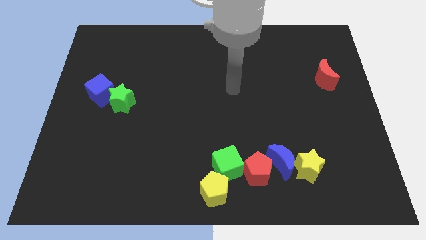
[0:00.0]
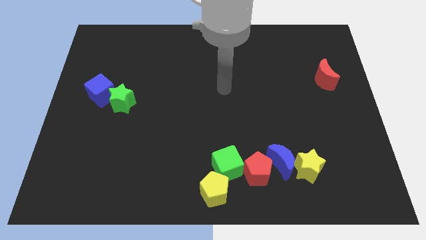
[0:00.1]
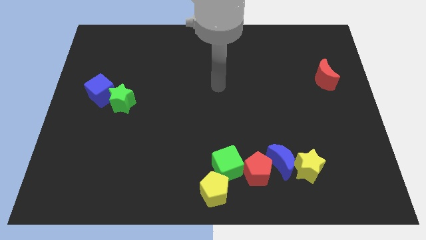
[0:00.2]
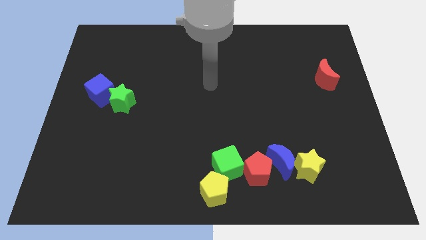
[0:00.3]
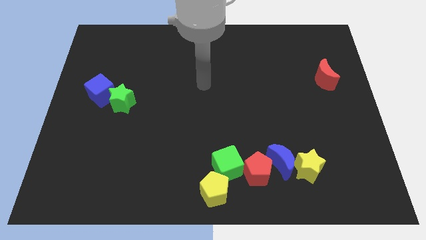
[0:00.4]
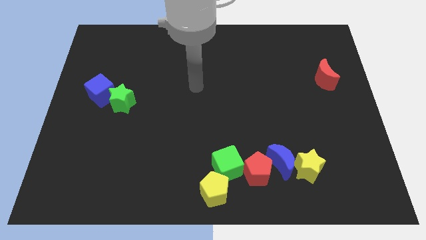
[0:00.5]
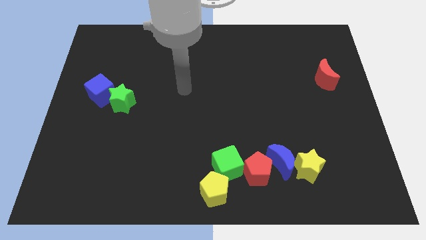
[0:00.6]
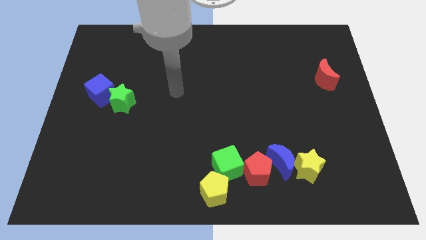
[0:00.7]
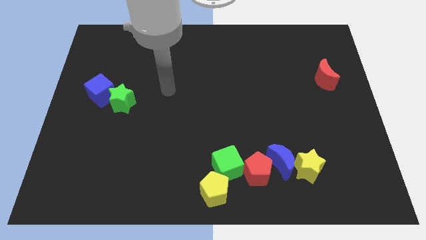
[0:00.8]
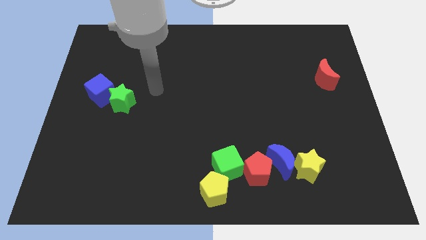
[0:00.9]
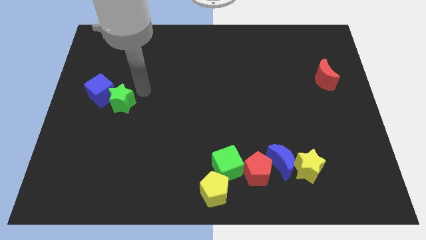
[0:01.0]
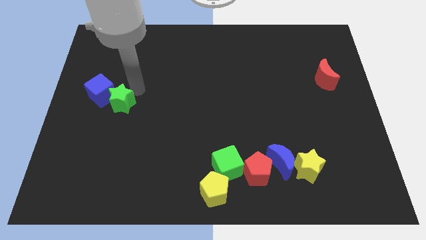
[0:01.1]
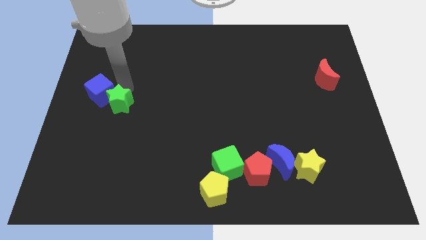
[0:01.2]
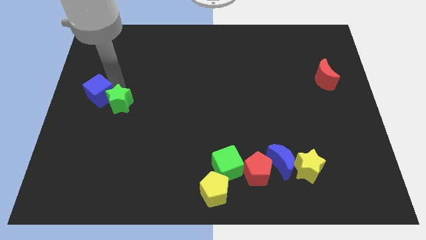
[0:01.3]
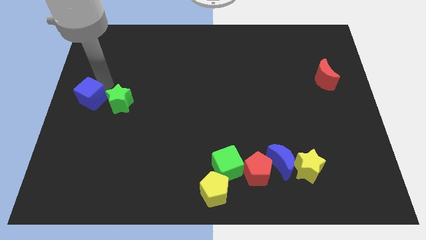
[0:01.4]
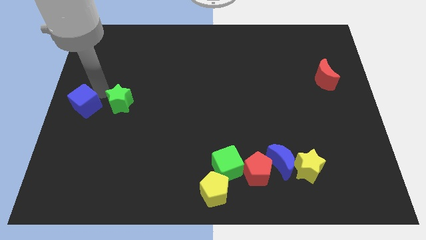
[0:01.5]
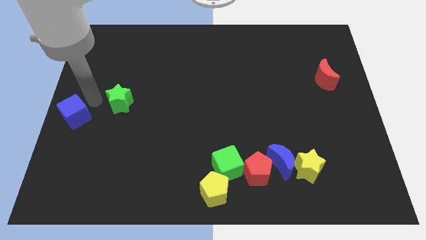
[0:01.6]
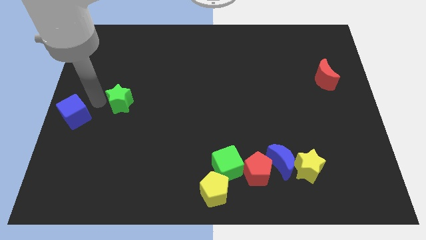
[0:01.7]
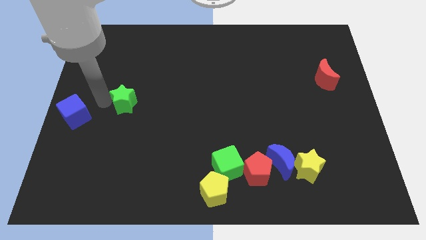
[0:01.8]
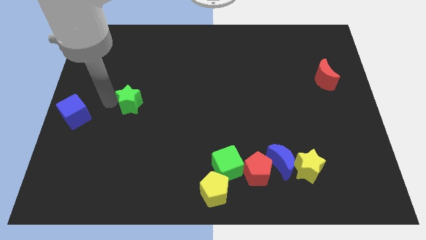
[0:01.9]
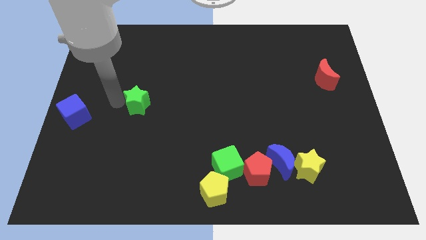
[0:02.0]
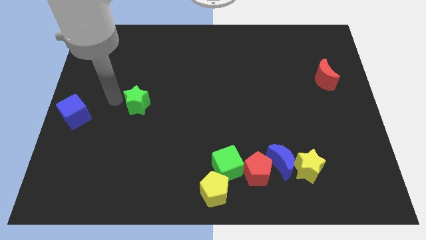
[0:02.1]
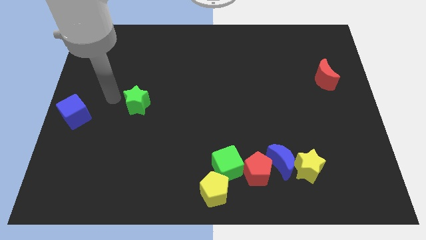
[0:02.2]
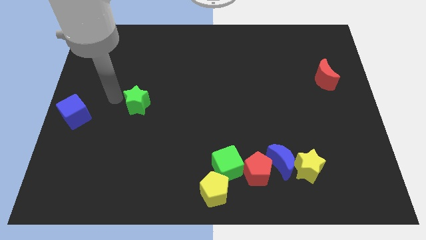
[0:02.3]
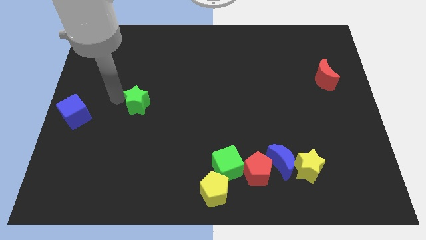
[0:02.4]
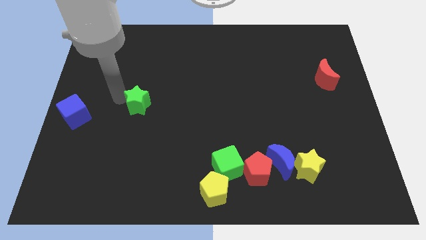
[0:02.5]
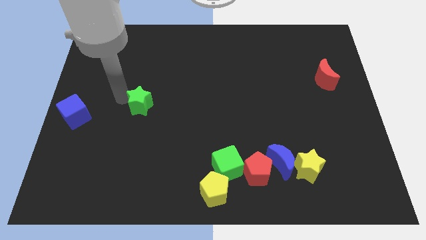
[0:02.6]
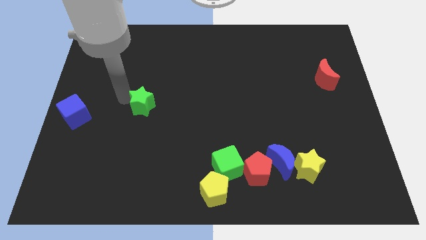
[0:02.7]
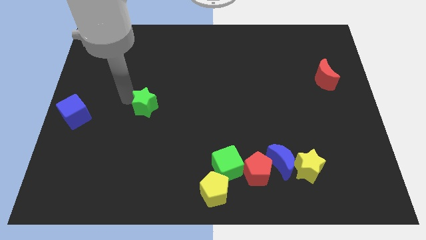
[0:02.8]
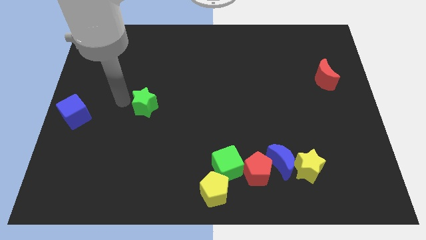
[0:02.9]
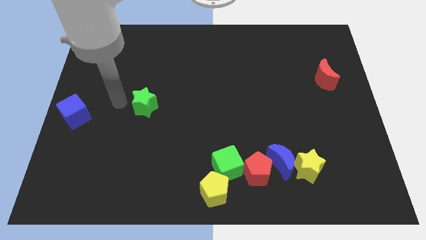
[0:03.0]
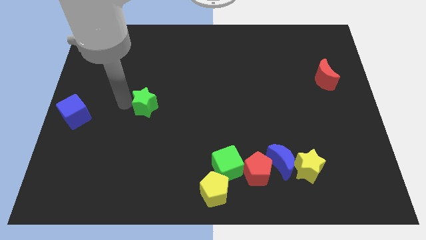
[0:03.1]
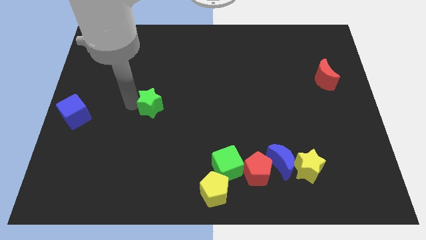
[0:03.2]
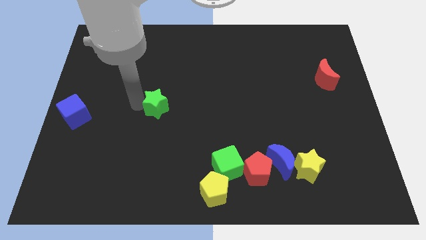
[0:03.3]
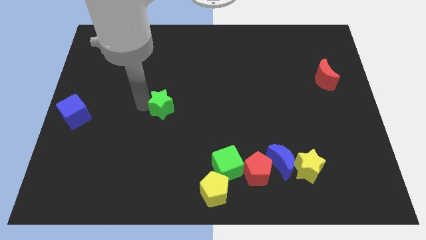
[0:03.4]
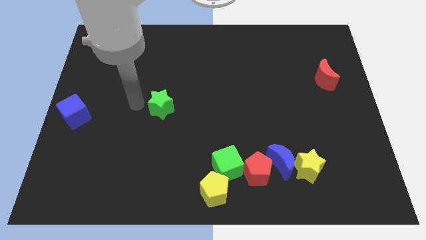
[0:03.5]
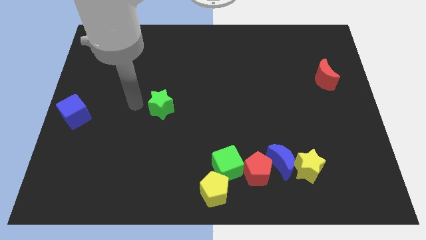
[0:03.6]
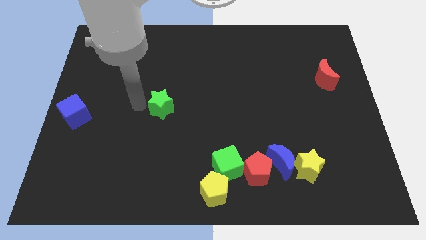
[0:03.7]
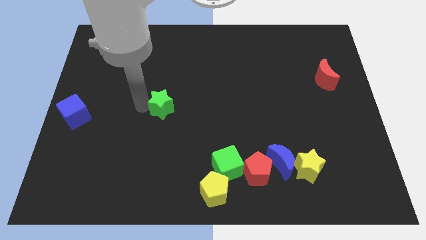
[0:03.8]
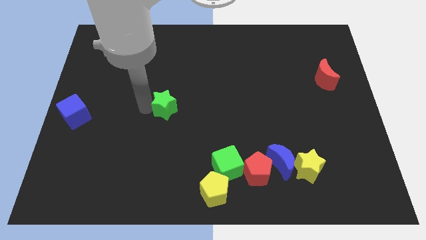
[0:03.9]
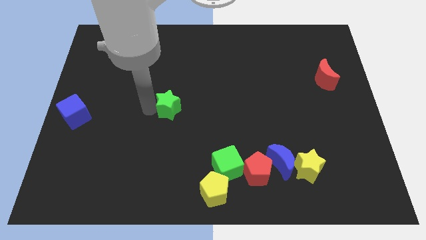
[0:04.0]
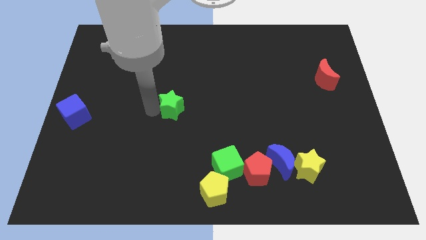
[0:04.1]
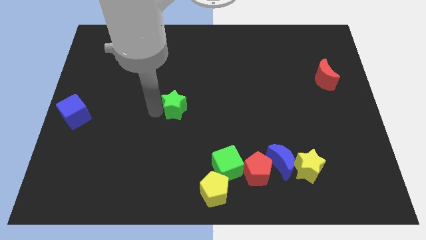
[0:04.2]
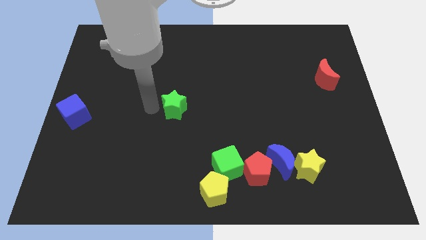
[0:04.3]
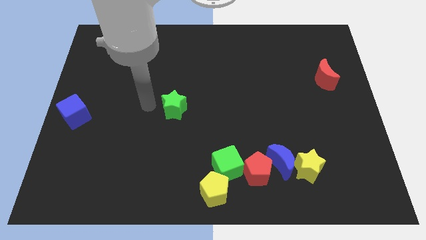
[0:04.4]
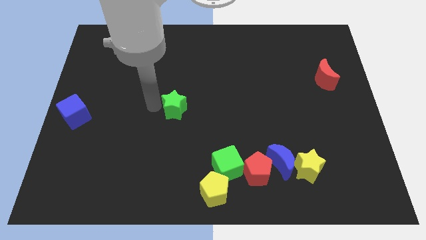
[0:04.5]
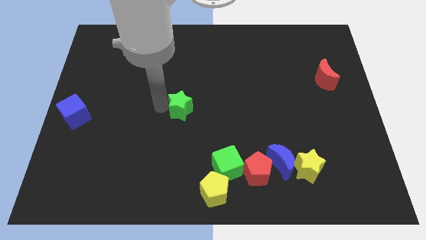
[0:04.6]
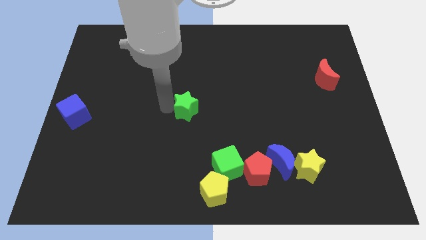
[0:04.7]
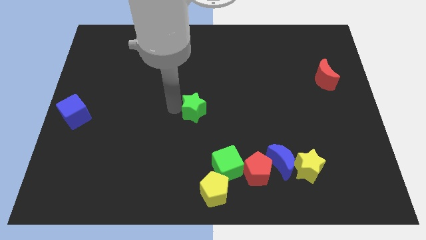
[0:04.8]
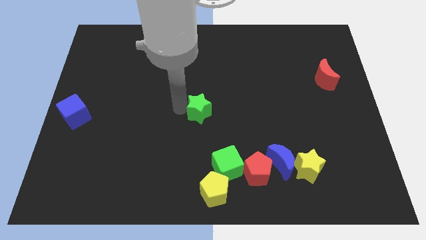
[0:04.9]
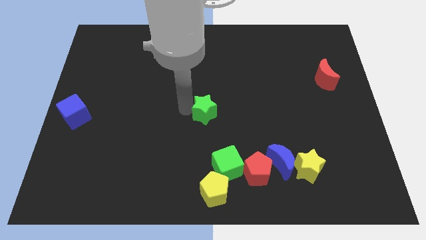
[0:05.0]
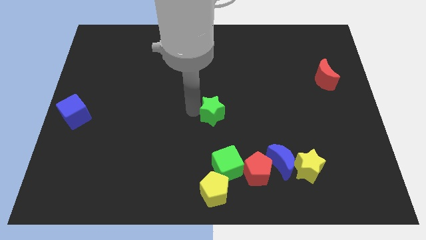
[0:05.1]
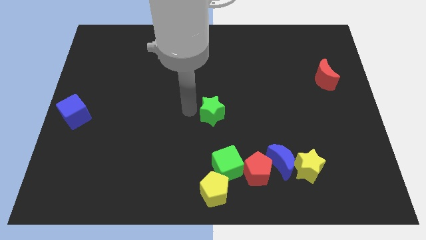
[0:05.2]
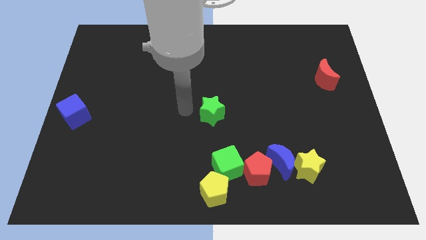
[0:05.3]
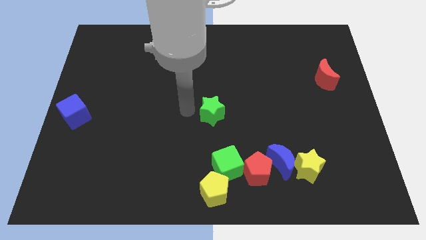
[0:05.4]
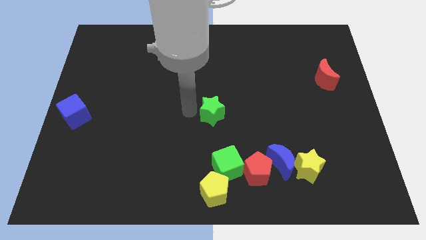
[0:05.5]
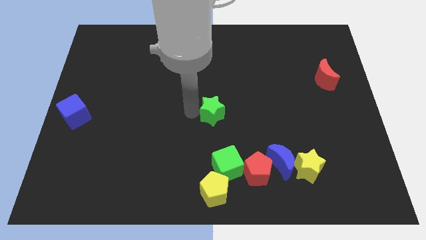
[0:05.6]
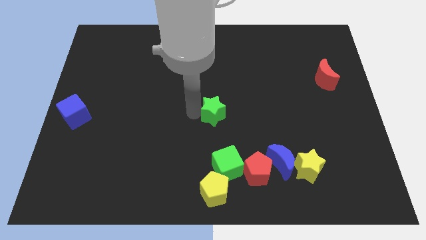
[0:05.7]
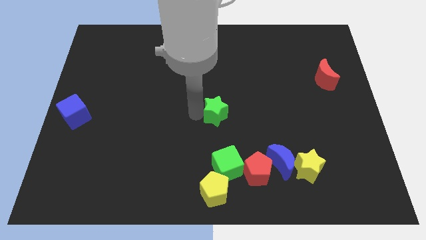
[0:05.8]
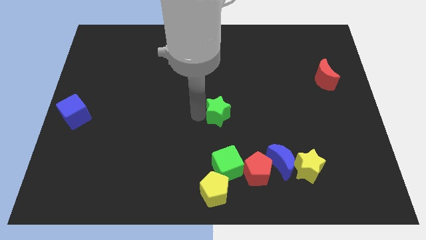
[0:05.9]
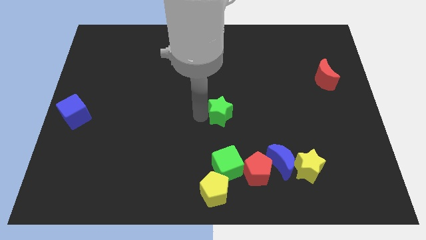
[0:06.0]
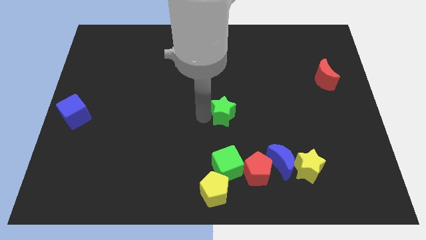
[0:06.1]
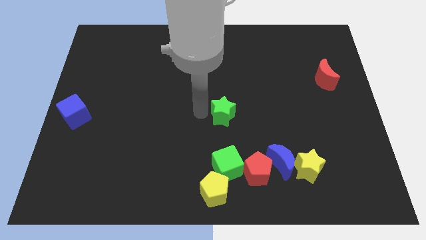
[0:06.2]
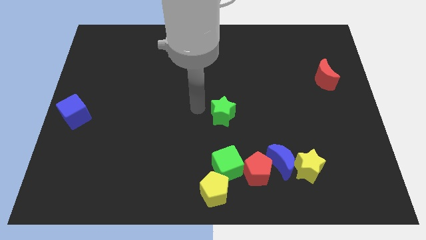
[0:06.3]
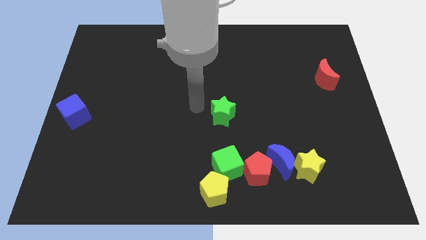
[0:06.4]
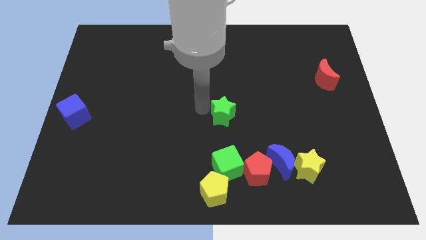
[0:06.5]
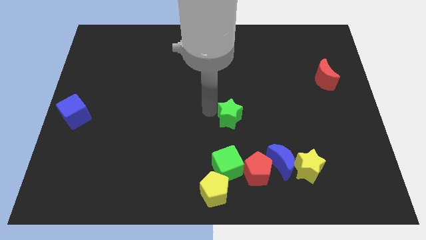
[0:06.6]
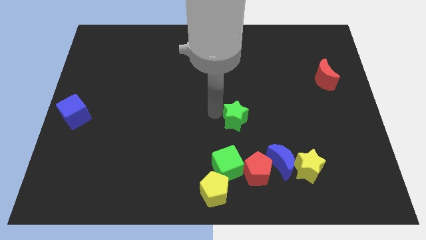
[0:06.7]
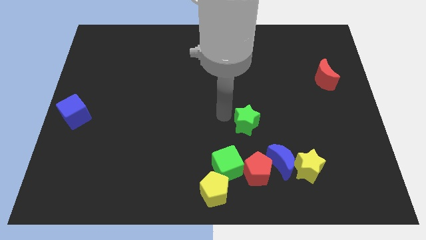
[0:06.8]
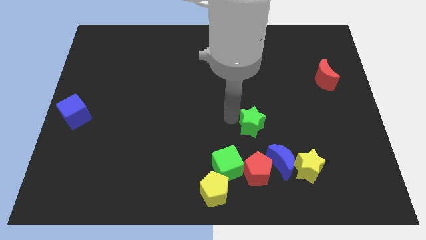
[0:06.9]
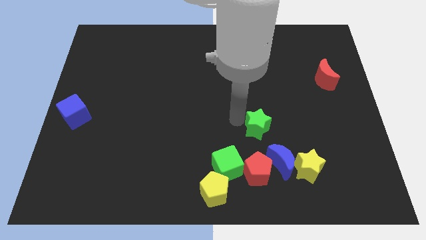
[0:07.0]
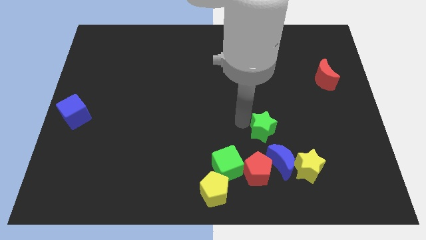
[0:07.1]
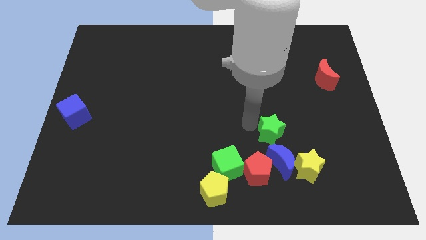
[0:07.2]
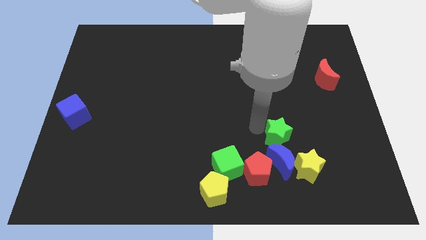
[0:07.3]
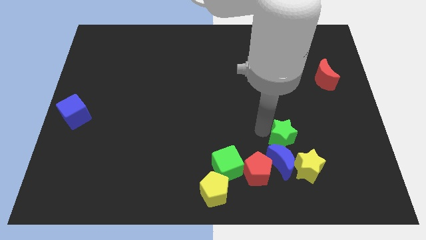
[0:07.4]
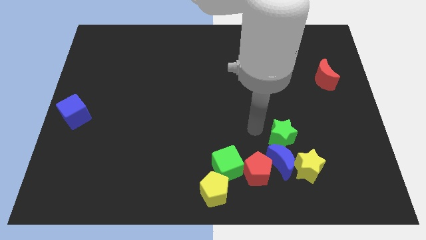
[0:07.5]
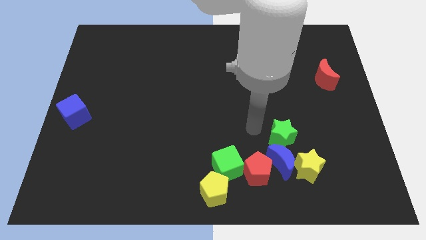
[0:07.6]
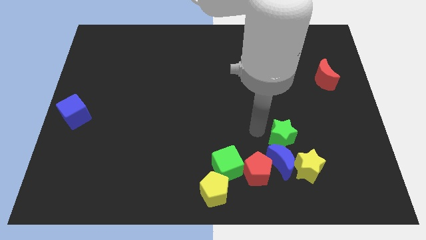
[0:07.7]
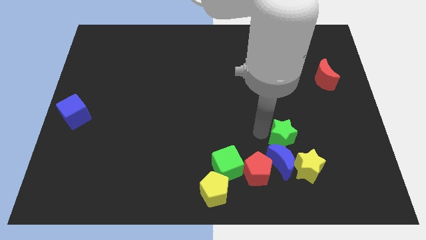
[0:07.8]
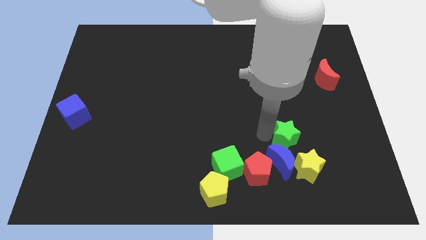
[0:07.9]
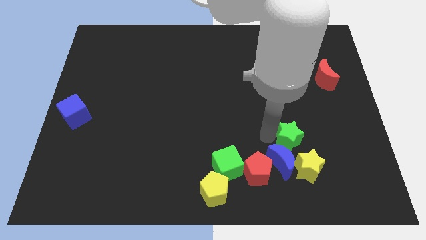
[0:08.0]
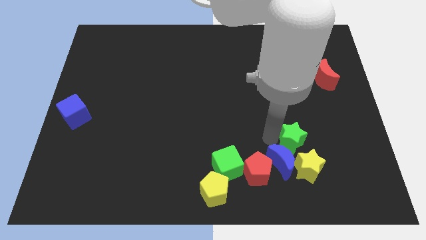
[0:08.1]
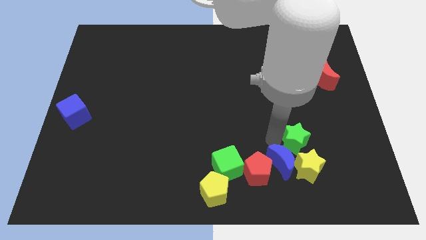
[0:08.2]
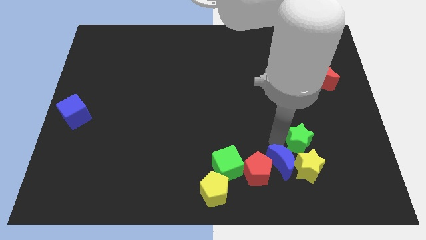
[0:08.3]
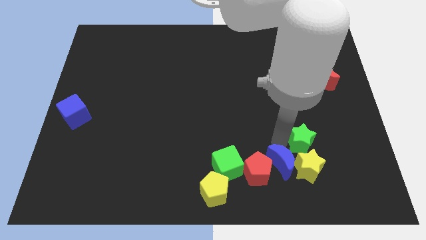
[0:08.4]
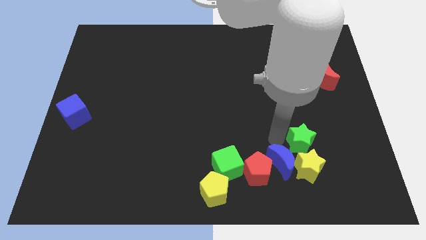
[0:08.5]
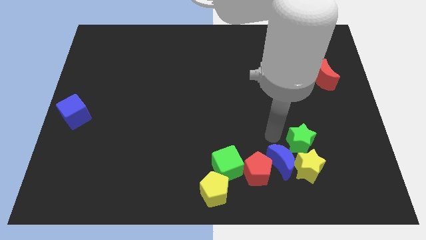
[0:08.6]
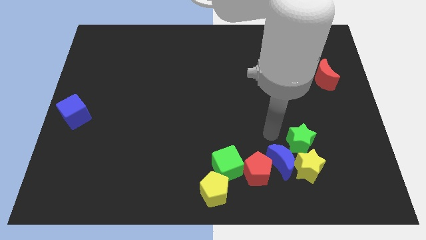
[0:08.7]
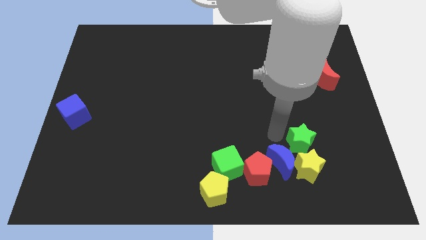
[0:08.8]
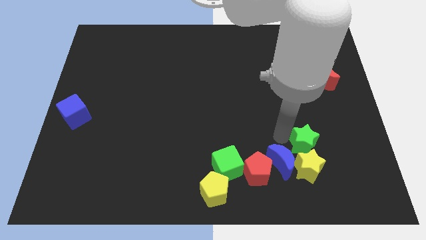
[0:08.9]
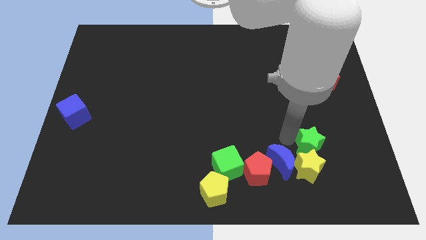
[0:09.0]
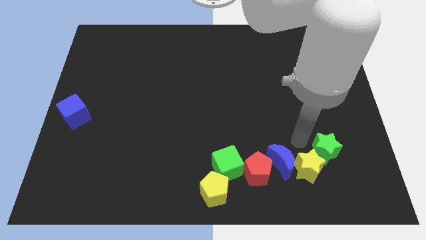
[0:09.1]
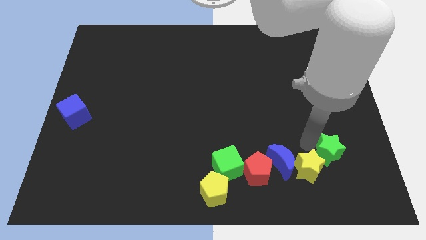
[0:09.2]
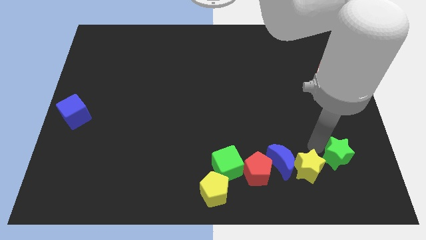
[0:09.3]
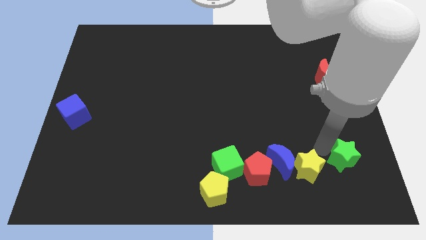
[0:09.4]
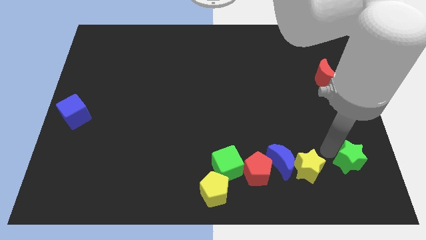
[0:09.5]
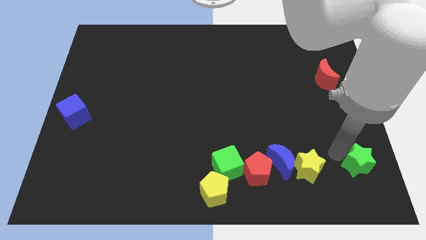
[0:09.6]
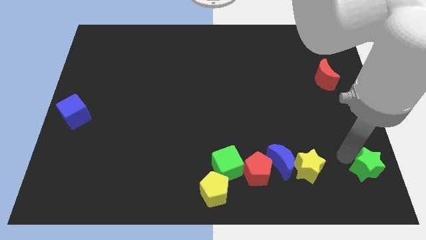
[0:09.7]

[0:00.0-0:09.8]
put the green star to the bottom right
